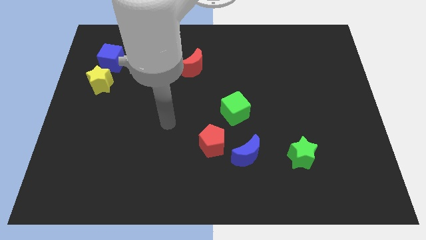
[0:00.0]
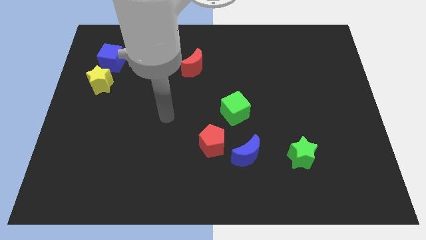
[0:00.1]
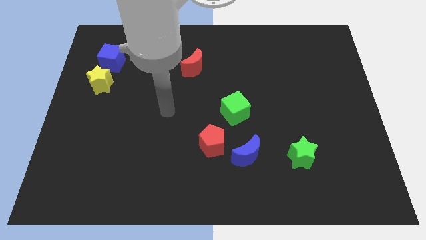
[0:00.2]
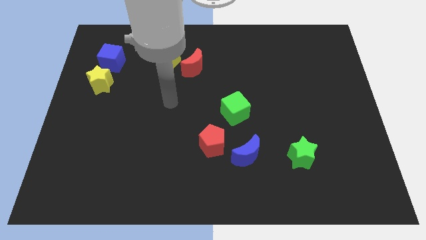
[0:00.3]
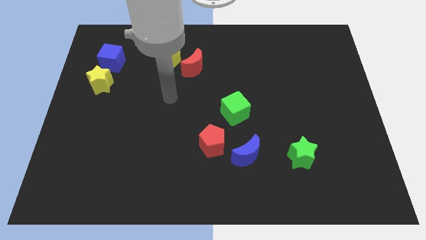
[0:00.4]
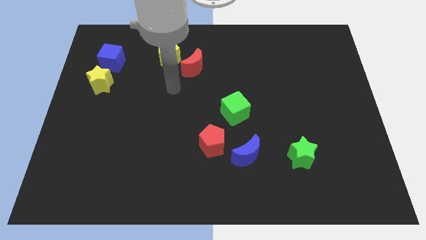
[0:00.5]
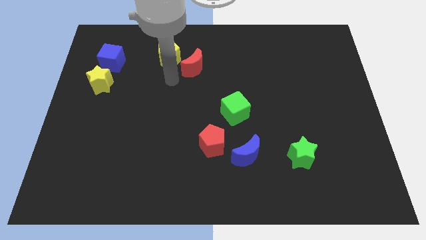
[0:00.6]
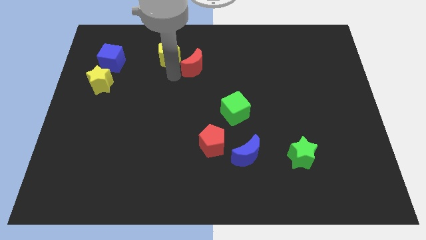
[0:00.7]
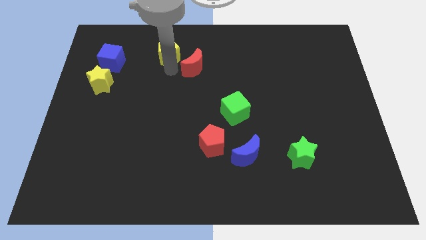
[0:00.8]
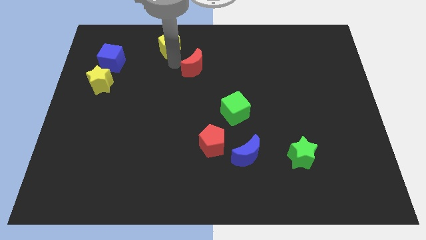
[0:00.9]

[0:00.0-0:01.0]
move the red moon away from the yellow pentagon

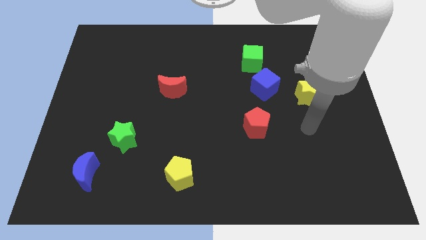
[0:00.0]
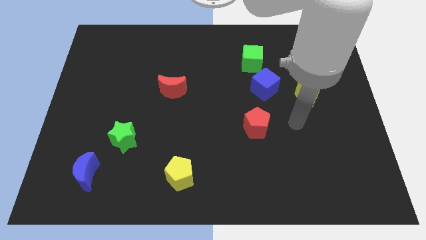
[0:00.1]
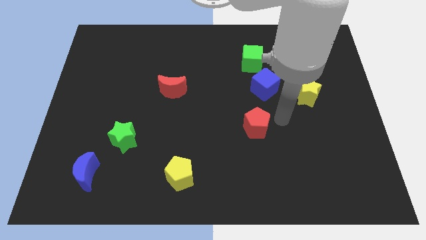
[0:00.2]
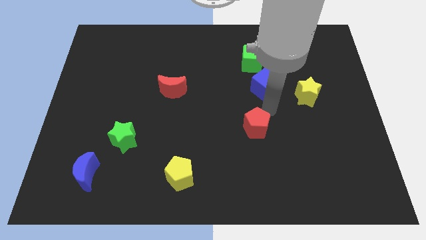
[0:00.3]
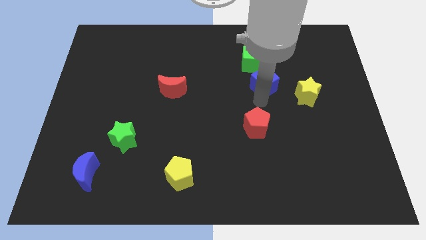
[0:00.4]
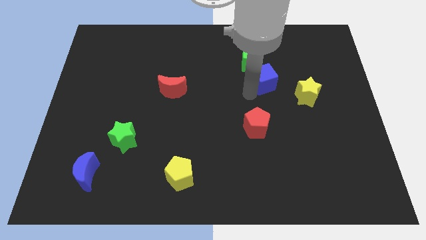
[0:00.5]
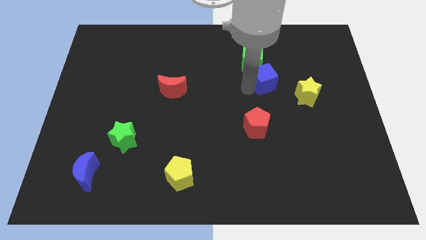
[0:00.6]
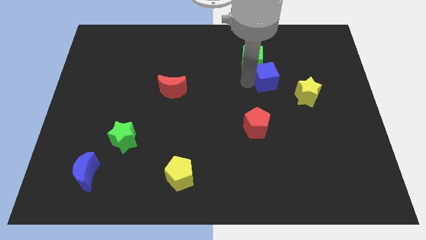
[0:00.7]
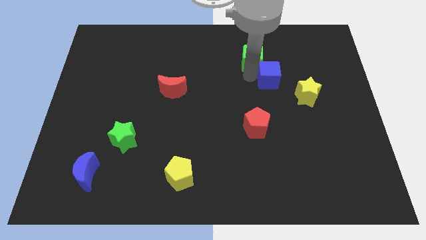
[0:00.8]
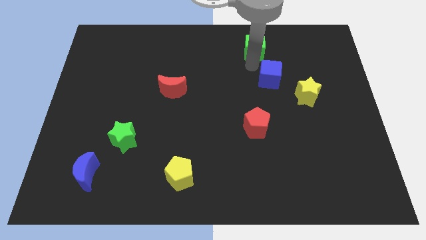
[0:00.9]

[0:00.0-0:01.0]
pull the blue cube apart from the green cube

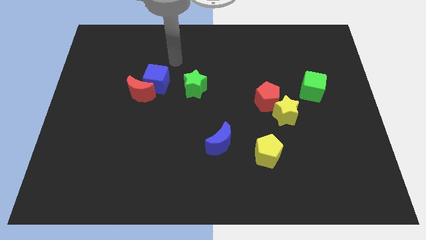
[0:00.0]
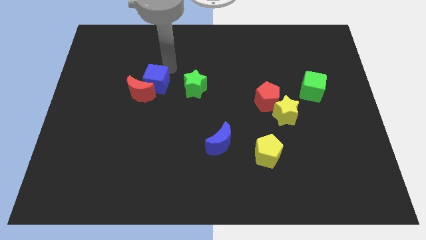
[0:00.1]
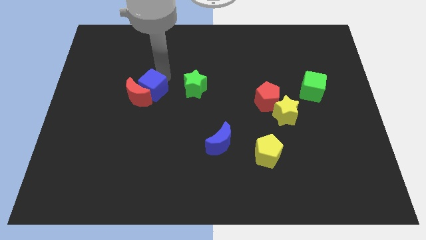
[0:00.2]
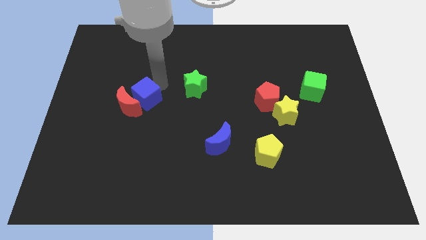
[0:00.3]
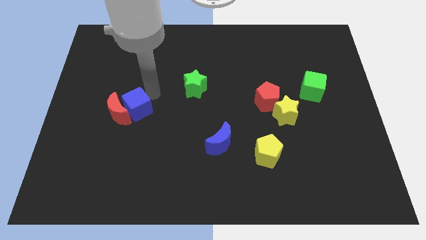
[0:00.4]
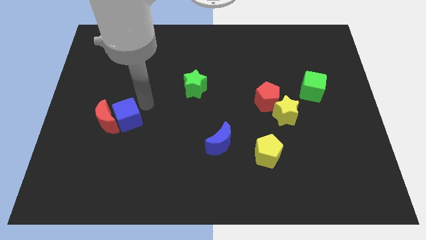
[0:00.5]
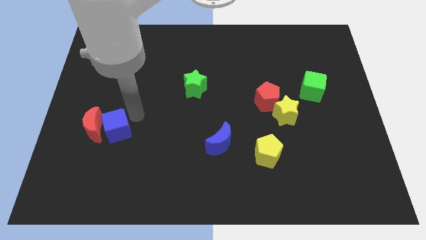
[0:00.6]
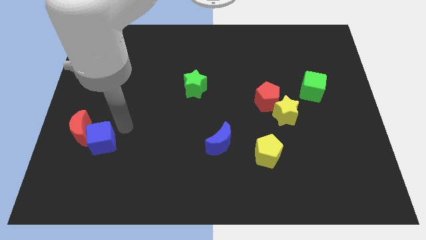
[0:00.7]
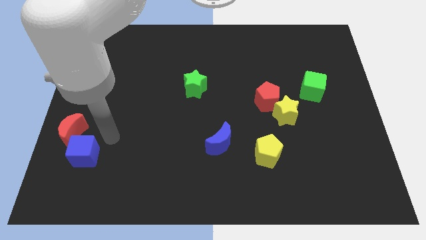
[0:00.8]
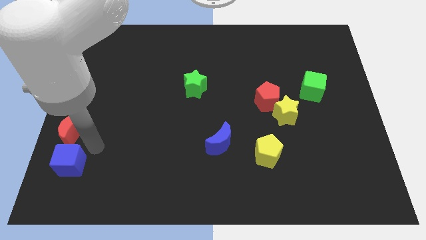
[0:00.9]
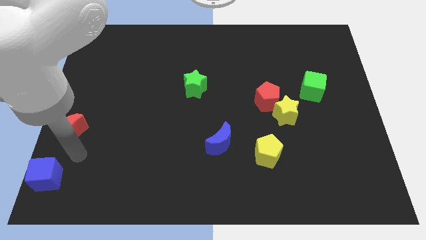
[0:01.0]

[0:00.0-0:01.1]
pull the red moon apart from the blue cube

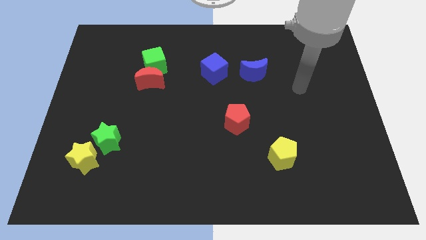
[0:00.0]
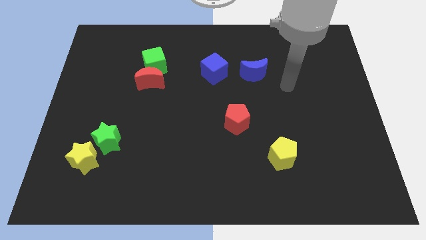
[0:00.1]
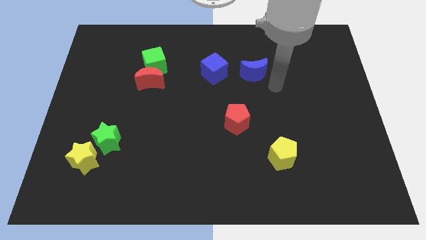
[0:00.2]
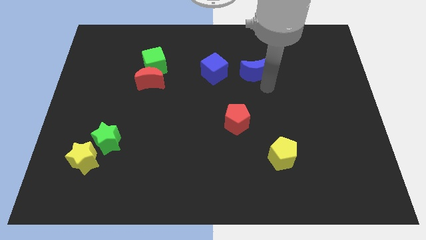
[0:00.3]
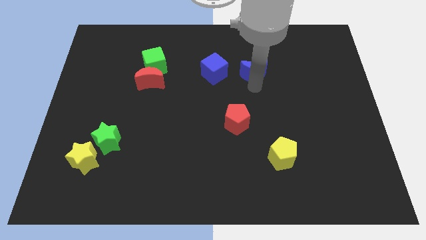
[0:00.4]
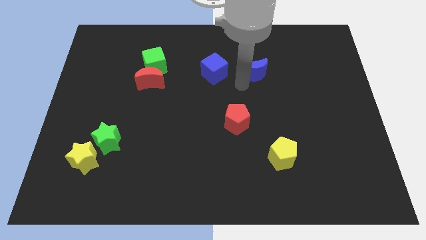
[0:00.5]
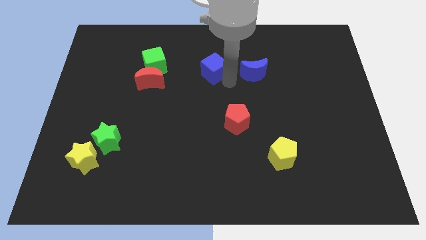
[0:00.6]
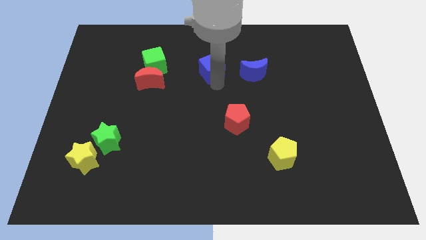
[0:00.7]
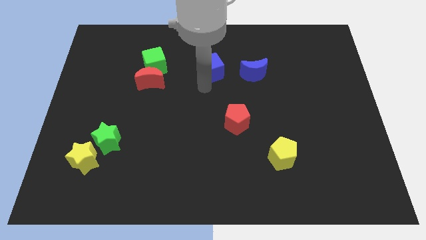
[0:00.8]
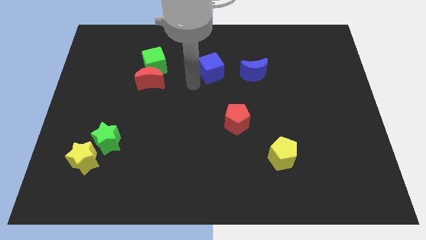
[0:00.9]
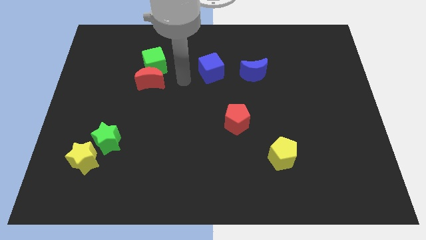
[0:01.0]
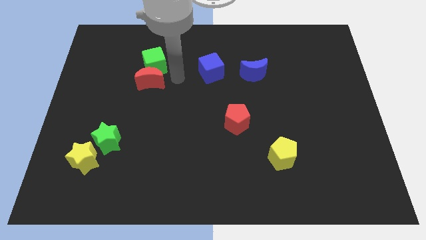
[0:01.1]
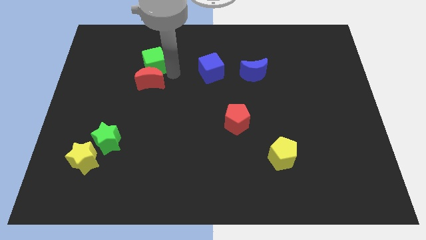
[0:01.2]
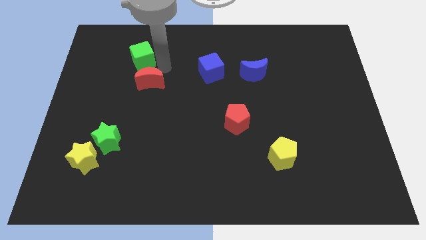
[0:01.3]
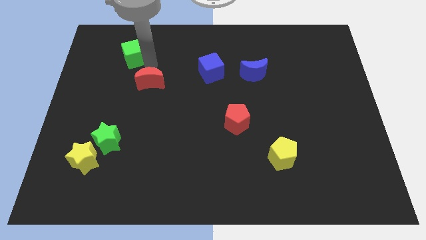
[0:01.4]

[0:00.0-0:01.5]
move the red moon away from the green cube

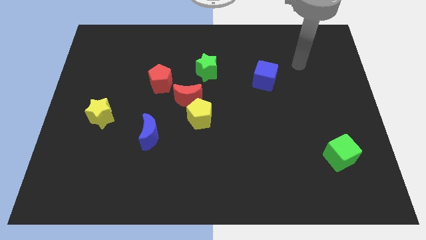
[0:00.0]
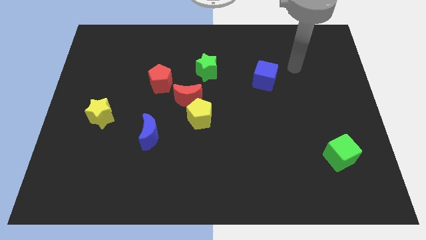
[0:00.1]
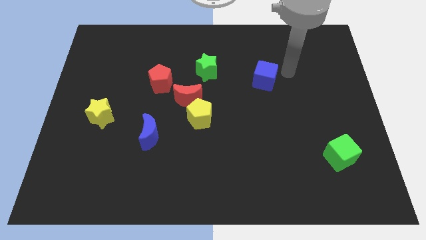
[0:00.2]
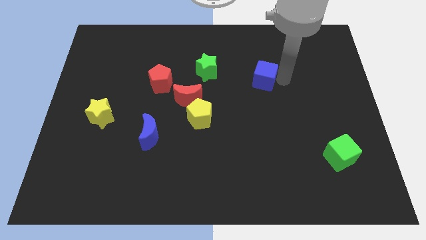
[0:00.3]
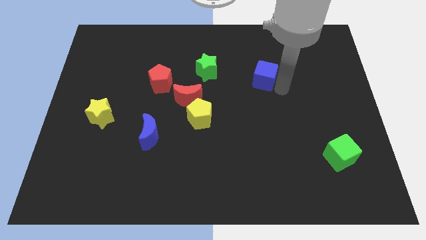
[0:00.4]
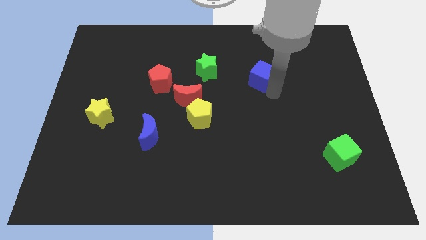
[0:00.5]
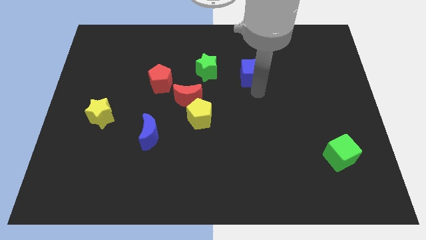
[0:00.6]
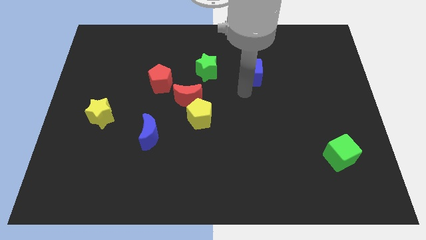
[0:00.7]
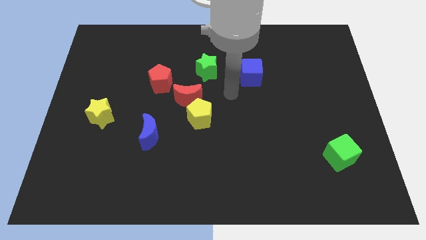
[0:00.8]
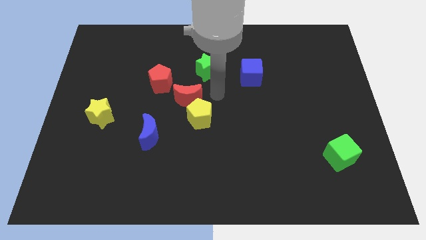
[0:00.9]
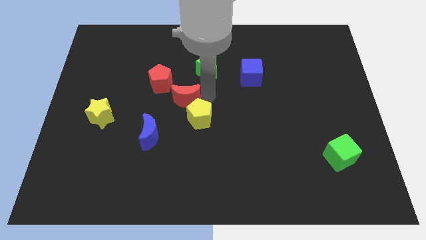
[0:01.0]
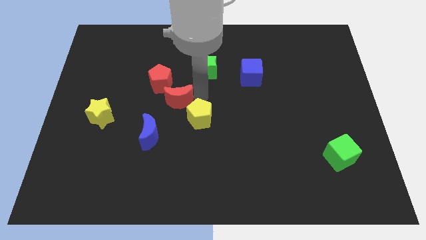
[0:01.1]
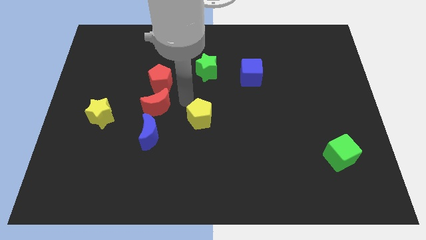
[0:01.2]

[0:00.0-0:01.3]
move the yellow pentagon away from the red moon

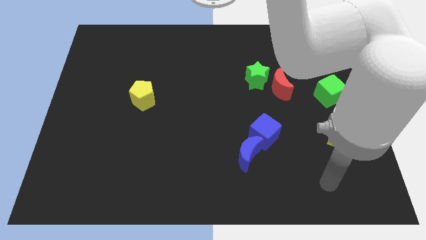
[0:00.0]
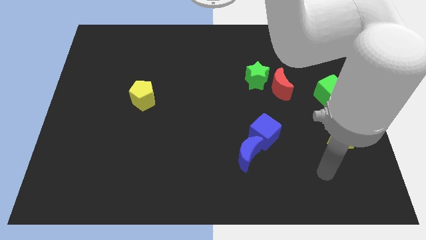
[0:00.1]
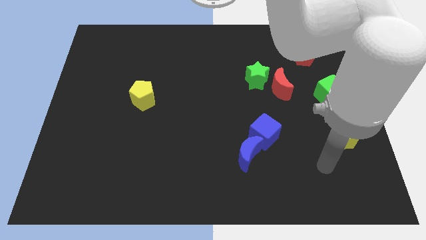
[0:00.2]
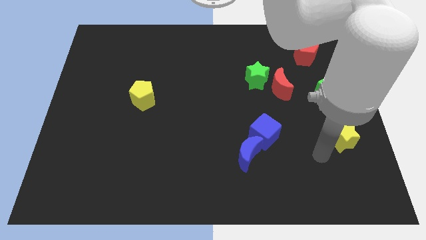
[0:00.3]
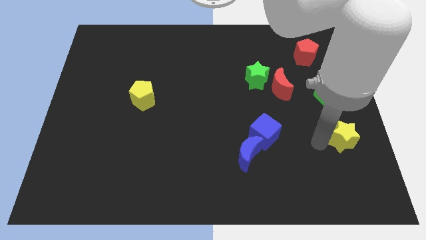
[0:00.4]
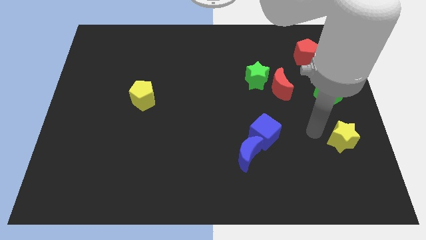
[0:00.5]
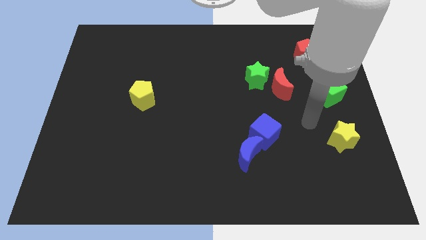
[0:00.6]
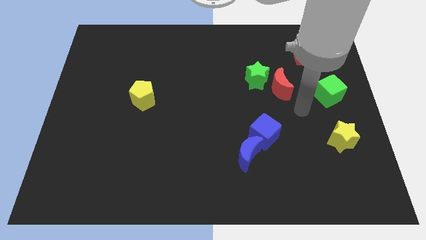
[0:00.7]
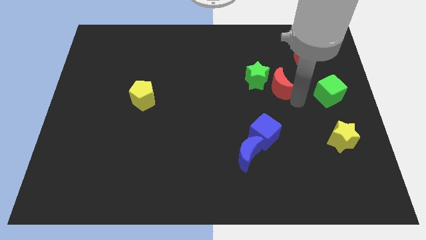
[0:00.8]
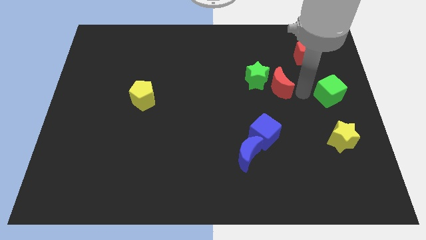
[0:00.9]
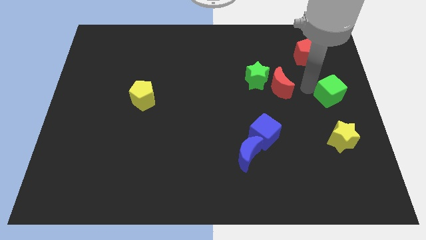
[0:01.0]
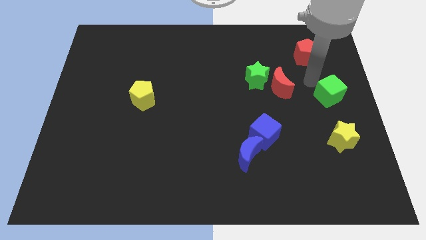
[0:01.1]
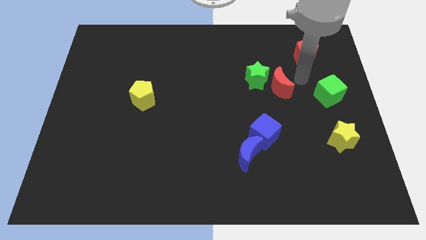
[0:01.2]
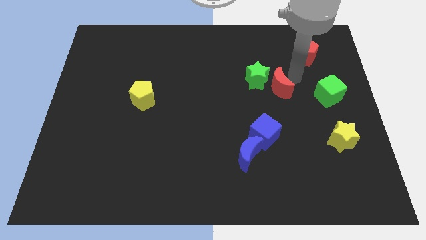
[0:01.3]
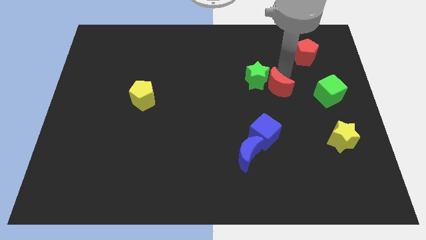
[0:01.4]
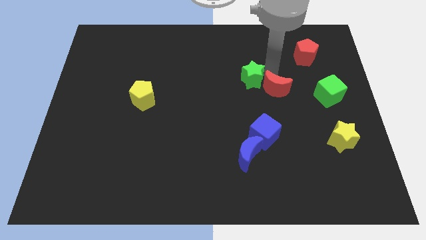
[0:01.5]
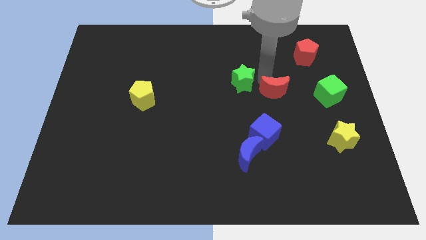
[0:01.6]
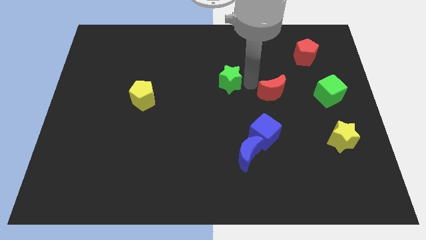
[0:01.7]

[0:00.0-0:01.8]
pull the red moon apart from the green star

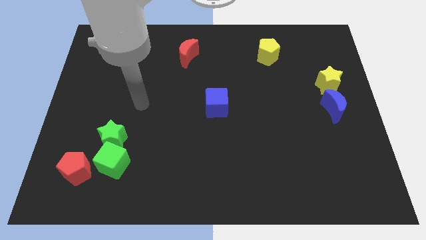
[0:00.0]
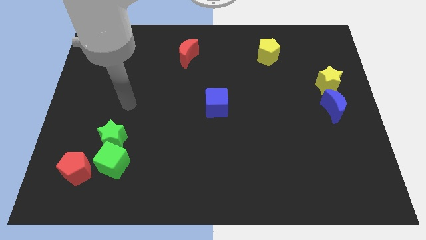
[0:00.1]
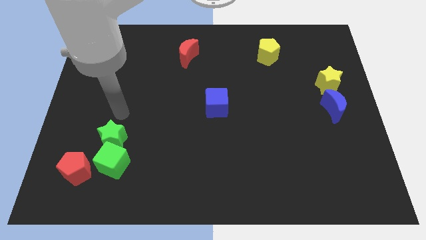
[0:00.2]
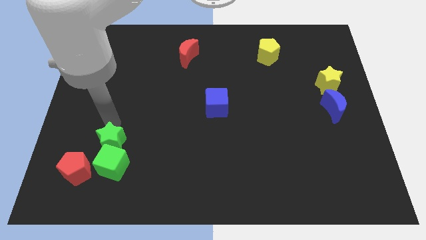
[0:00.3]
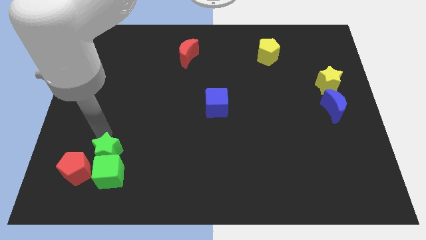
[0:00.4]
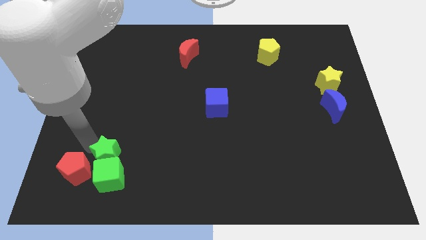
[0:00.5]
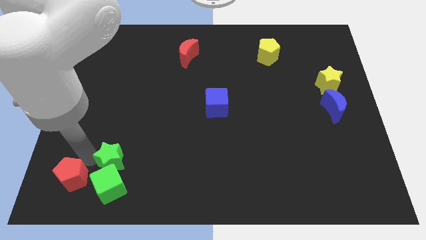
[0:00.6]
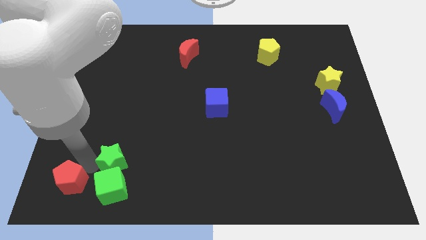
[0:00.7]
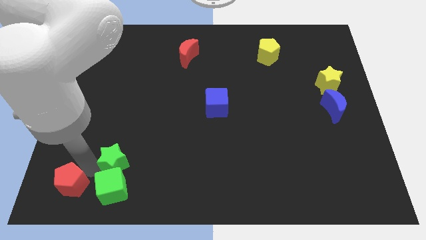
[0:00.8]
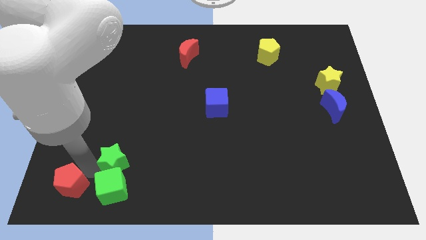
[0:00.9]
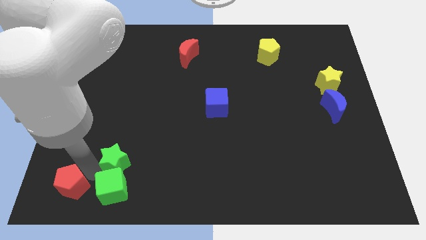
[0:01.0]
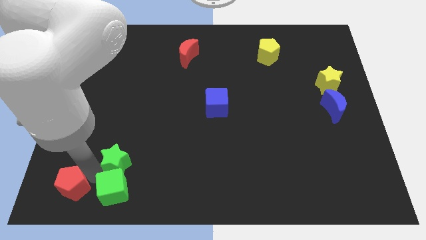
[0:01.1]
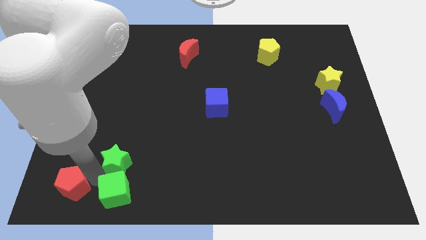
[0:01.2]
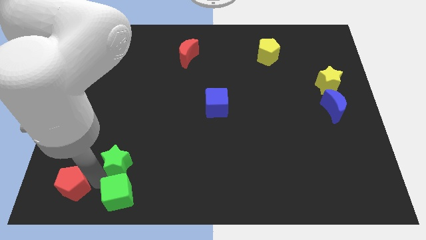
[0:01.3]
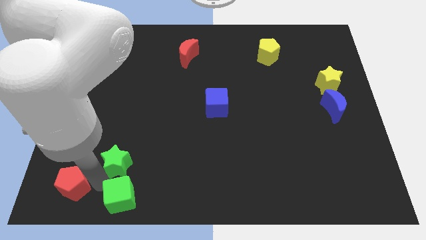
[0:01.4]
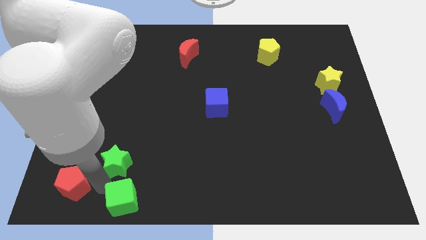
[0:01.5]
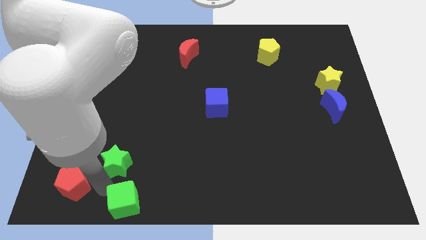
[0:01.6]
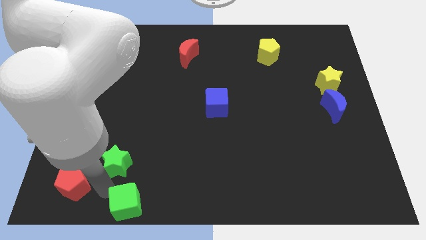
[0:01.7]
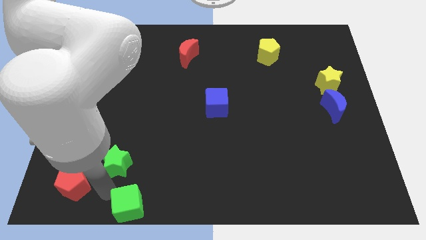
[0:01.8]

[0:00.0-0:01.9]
move the green cube away from the green star and red pentagon
